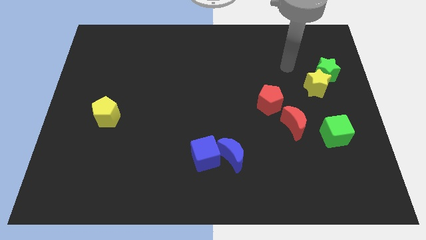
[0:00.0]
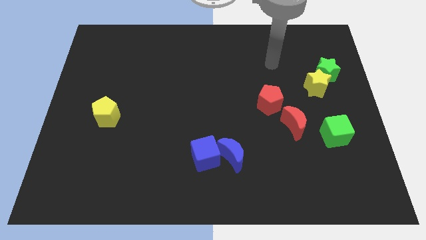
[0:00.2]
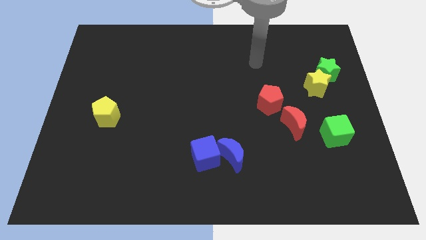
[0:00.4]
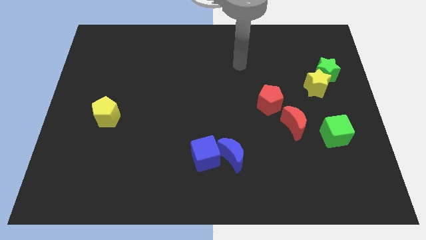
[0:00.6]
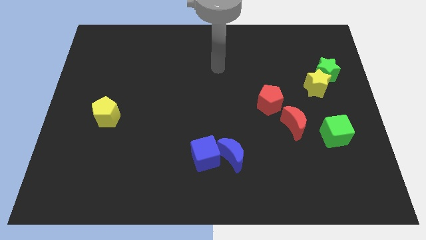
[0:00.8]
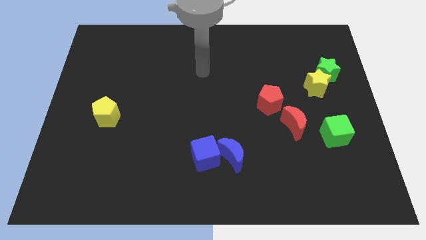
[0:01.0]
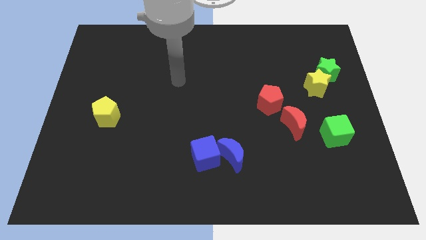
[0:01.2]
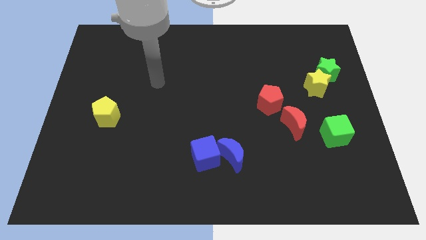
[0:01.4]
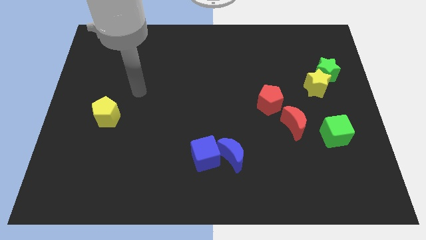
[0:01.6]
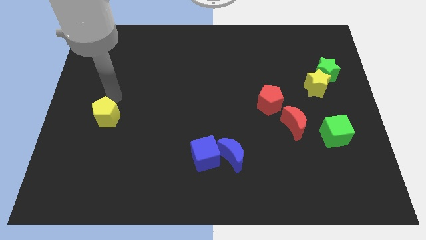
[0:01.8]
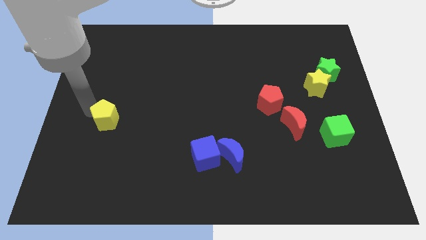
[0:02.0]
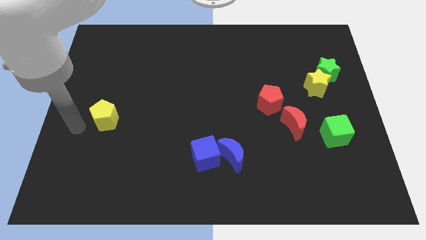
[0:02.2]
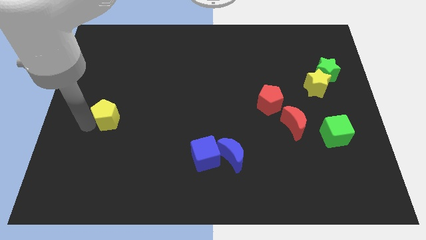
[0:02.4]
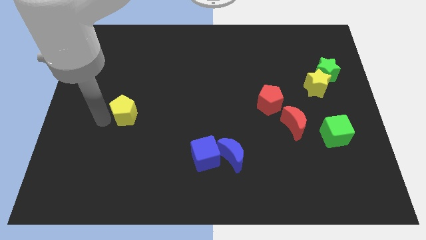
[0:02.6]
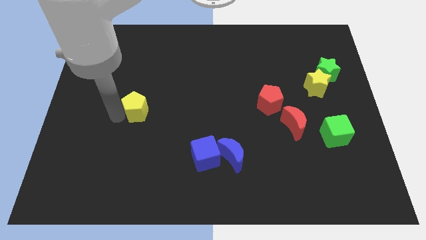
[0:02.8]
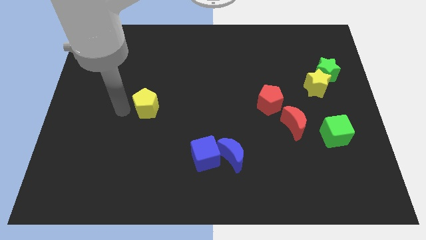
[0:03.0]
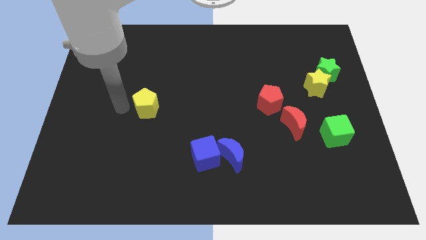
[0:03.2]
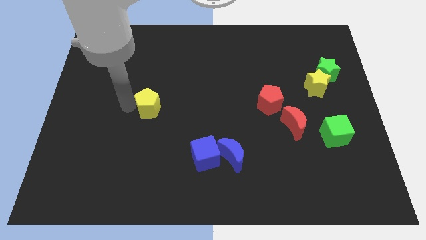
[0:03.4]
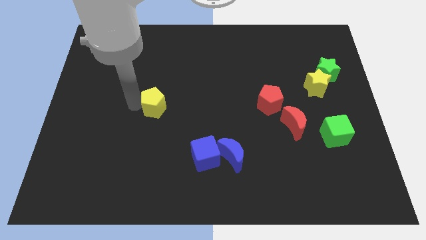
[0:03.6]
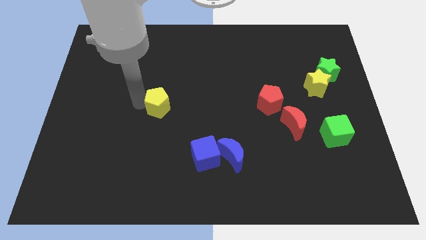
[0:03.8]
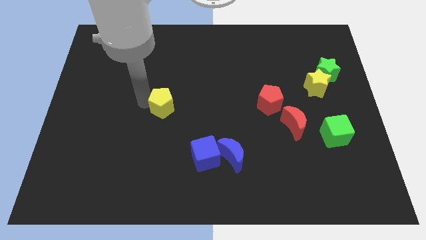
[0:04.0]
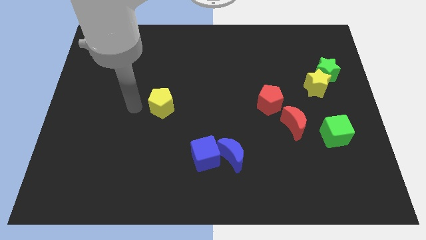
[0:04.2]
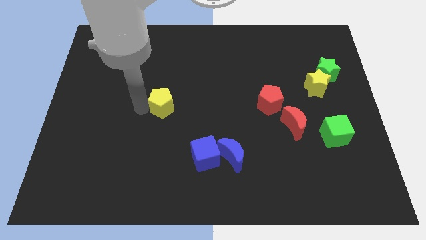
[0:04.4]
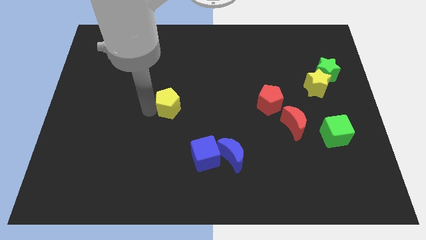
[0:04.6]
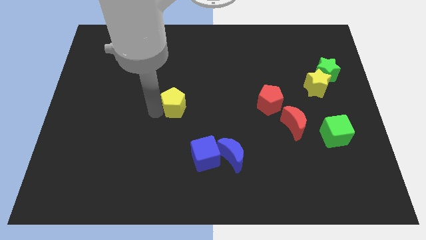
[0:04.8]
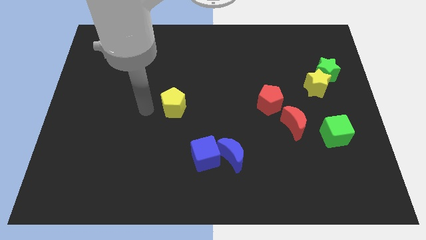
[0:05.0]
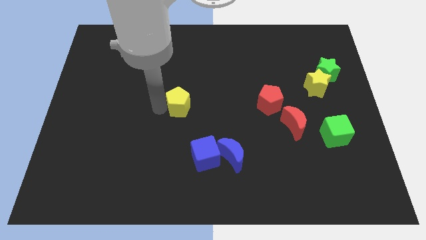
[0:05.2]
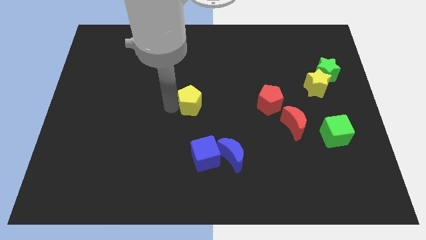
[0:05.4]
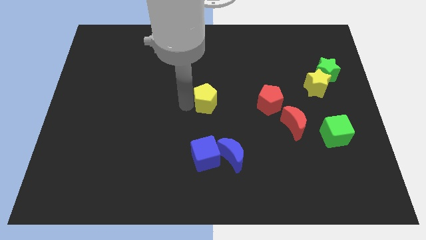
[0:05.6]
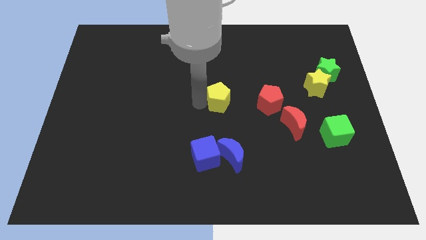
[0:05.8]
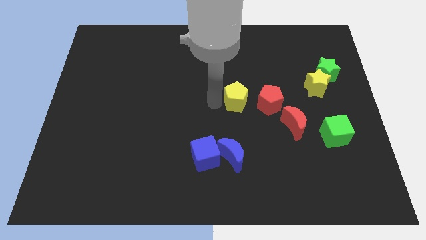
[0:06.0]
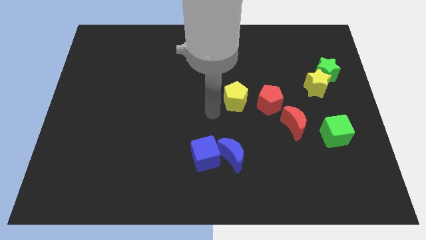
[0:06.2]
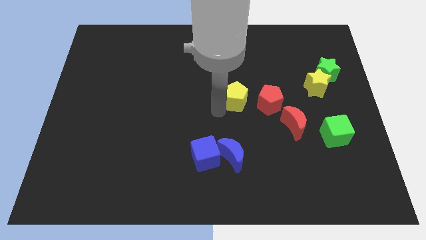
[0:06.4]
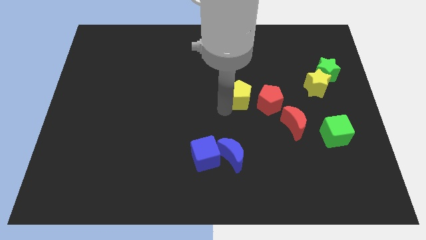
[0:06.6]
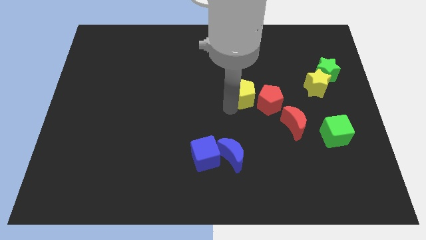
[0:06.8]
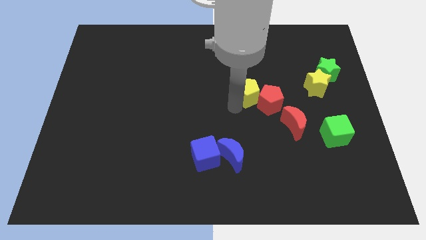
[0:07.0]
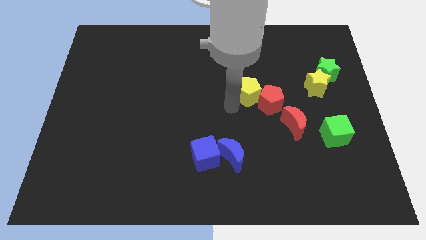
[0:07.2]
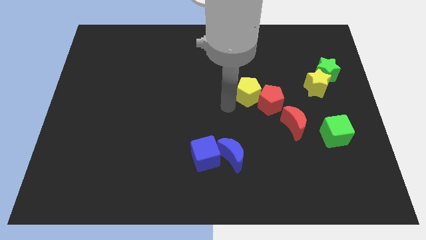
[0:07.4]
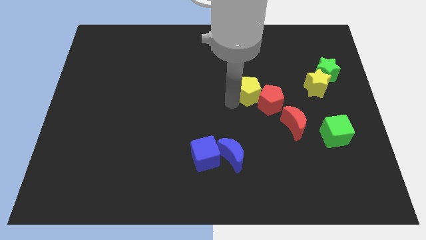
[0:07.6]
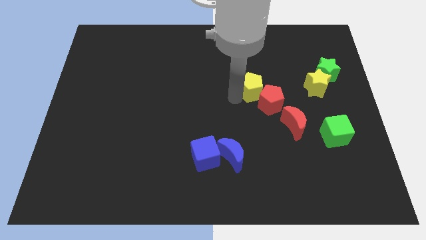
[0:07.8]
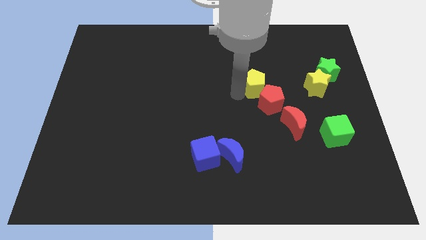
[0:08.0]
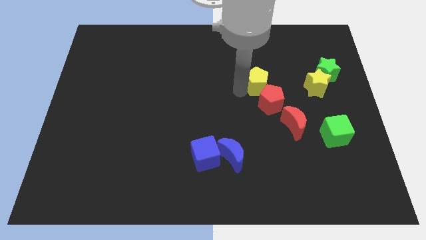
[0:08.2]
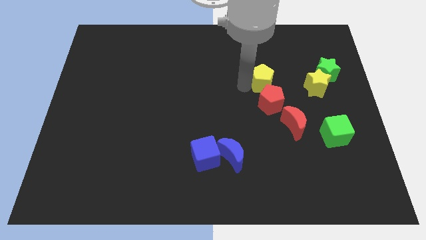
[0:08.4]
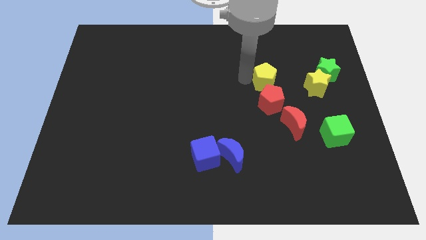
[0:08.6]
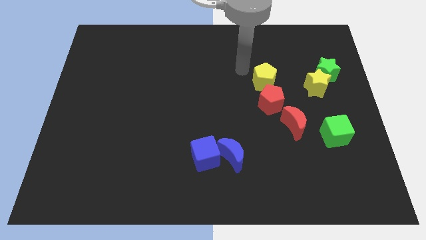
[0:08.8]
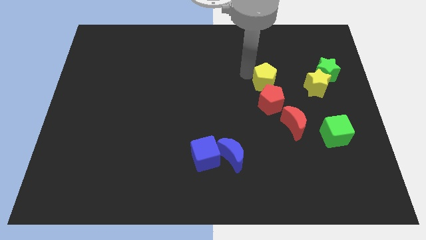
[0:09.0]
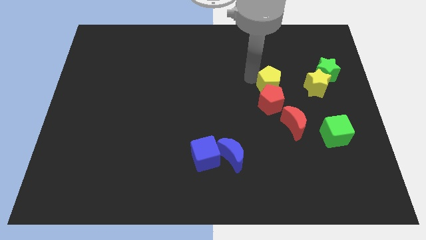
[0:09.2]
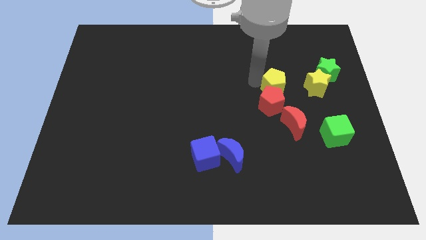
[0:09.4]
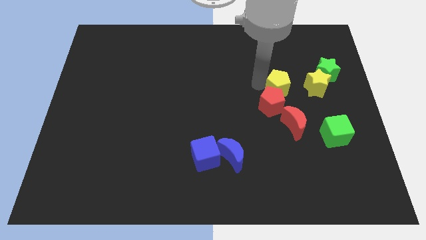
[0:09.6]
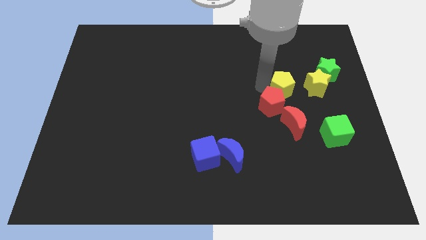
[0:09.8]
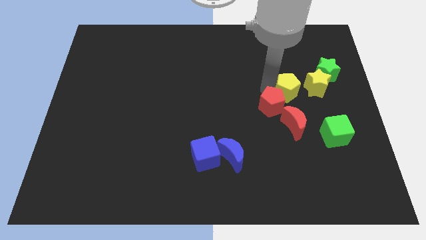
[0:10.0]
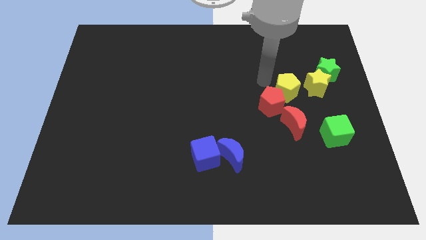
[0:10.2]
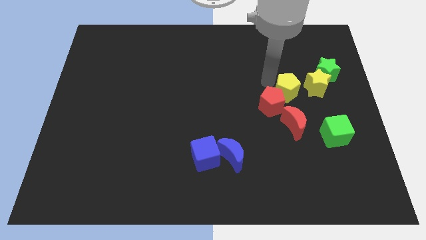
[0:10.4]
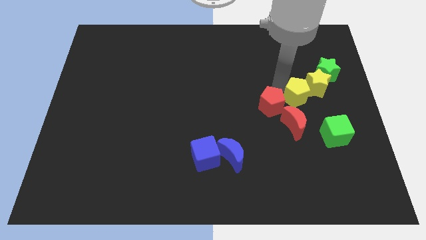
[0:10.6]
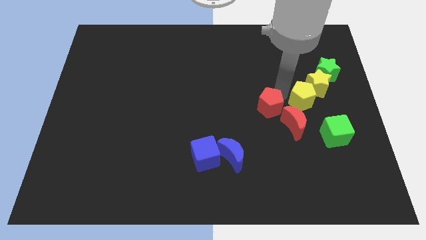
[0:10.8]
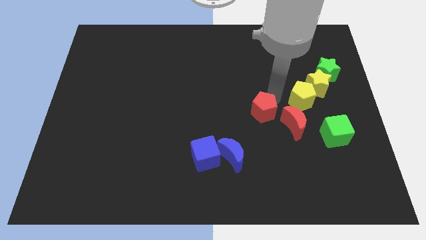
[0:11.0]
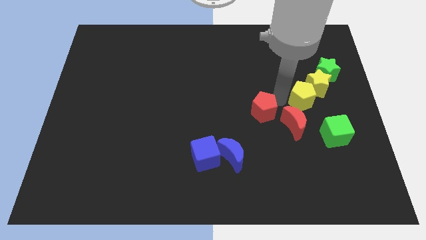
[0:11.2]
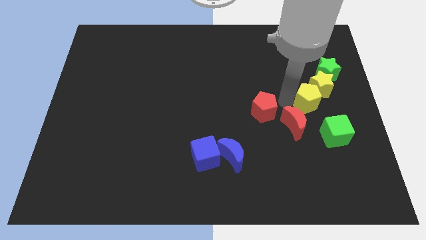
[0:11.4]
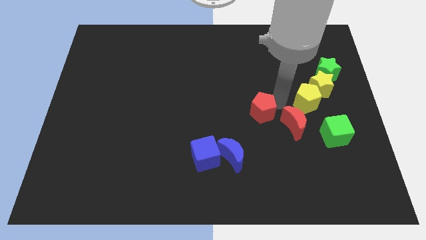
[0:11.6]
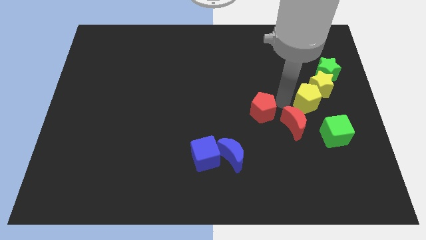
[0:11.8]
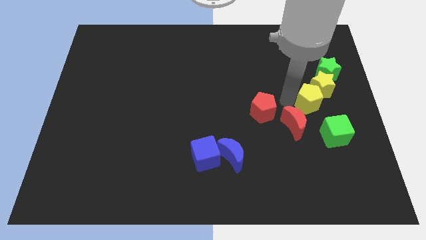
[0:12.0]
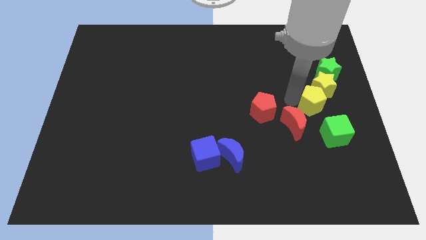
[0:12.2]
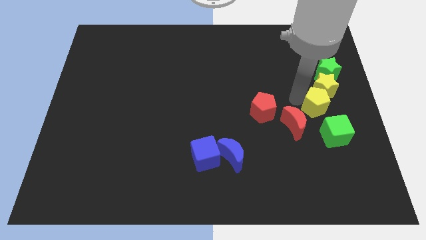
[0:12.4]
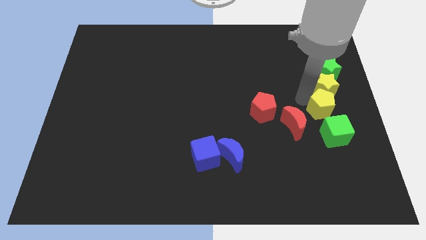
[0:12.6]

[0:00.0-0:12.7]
slide the yellow pentagon to the right side of the board
